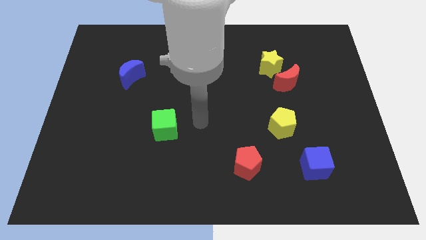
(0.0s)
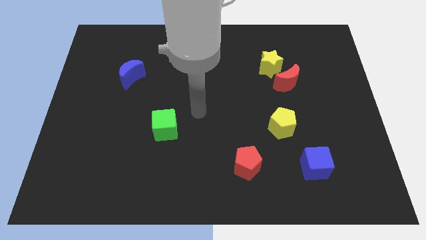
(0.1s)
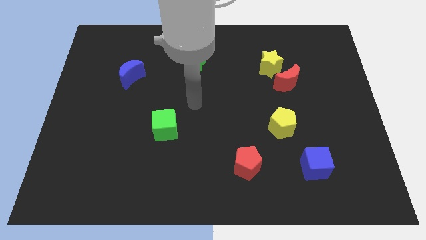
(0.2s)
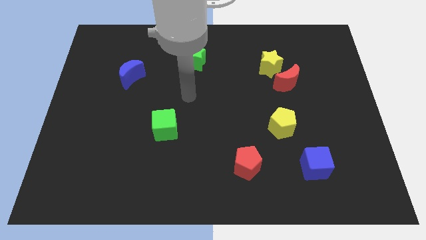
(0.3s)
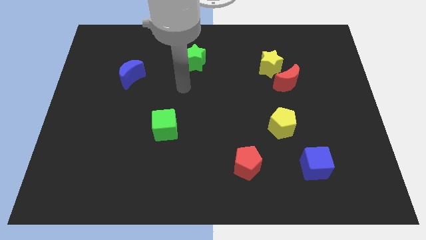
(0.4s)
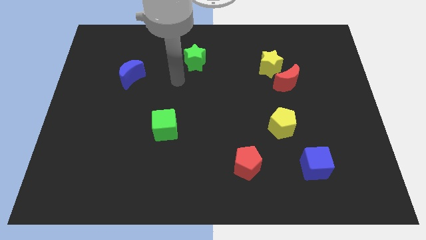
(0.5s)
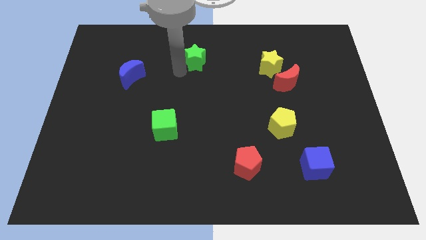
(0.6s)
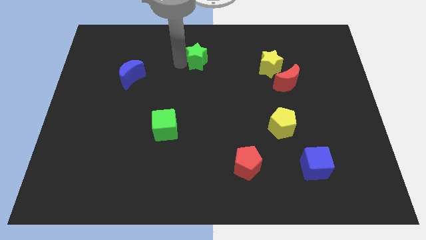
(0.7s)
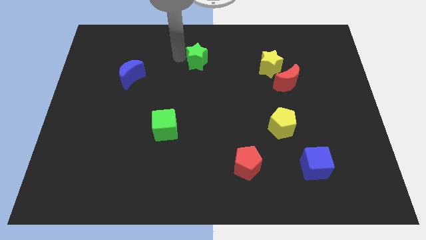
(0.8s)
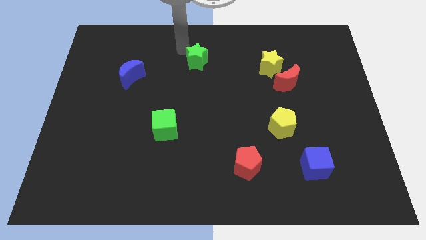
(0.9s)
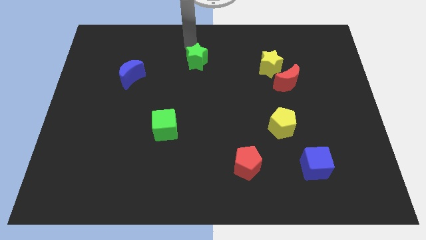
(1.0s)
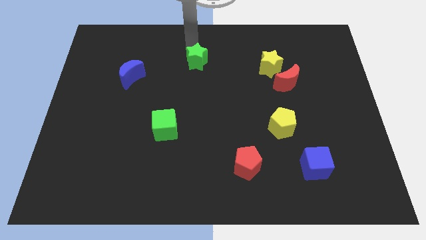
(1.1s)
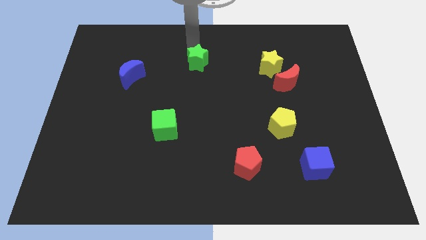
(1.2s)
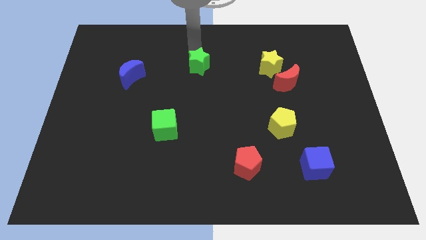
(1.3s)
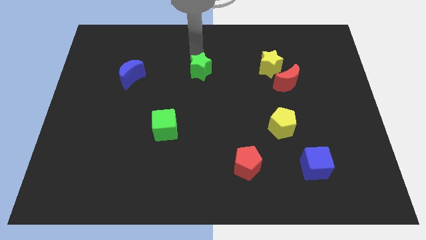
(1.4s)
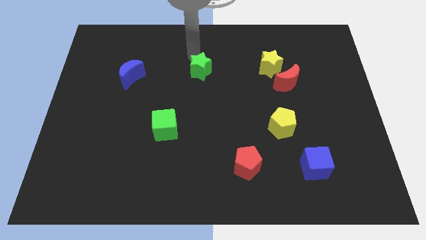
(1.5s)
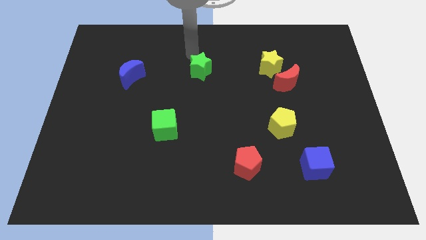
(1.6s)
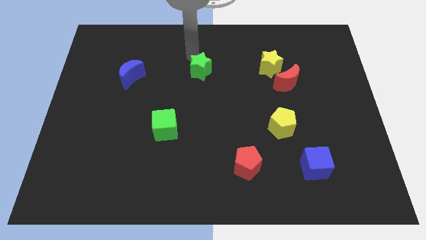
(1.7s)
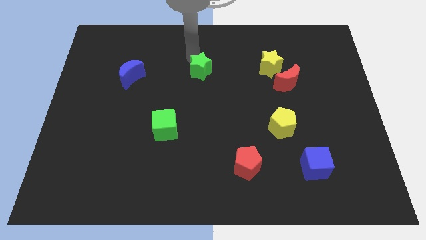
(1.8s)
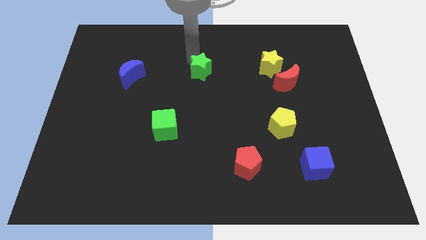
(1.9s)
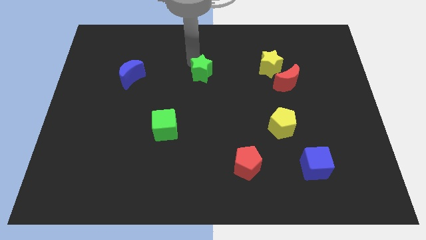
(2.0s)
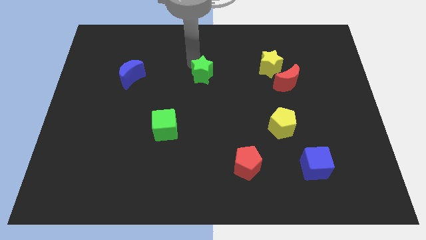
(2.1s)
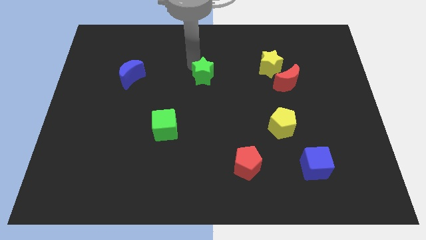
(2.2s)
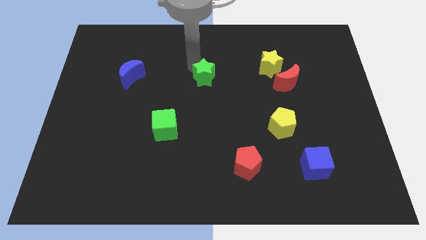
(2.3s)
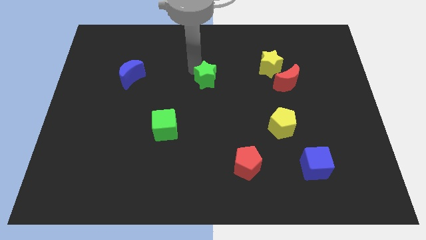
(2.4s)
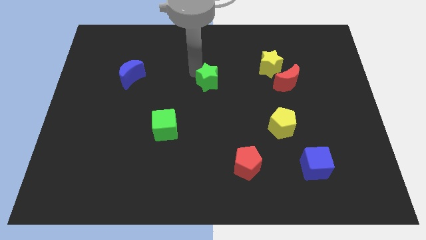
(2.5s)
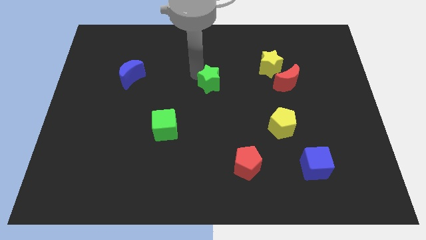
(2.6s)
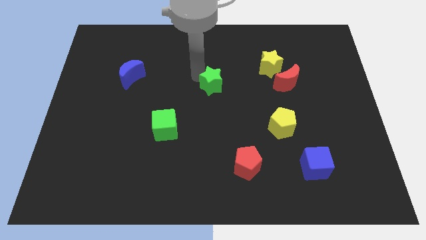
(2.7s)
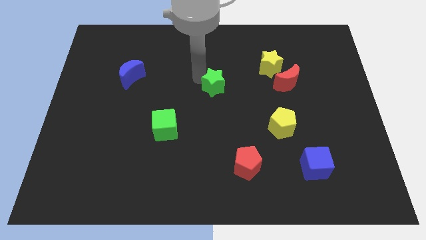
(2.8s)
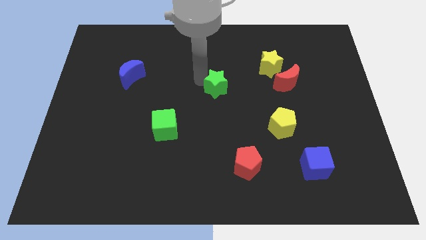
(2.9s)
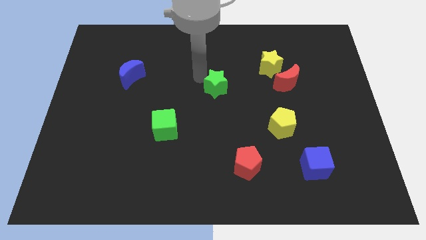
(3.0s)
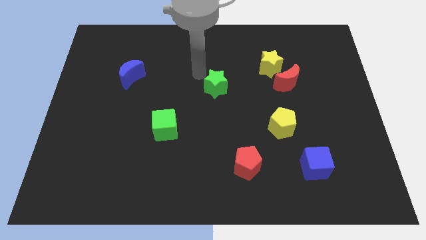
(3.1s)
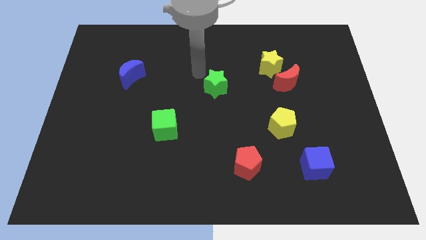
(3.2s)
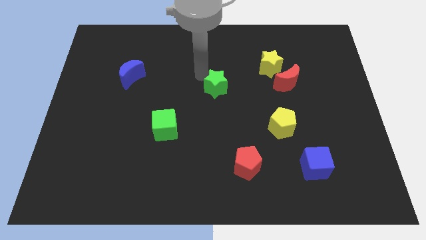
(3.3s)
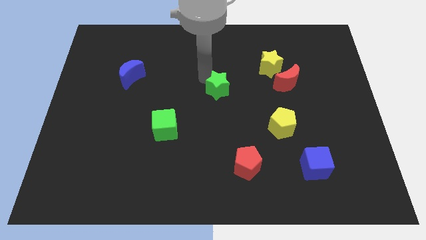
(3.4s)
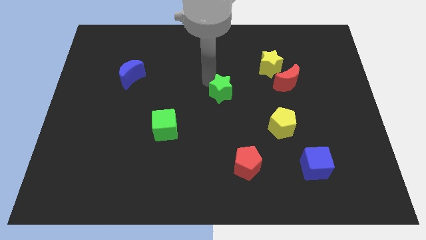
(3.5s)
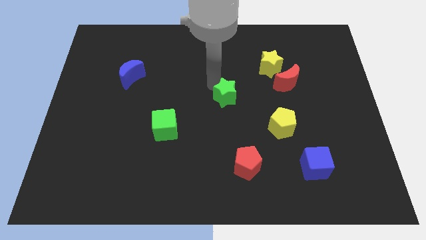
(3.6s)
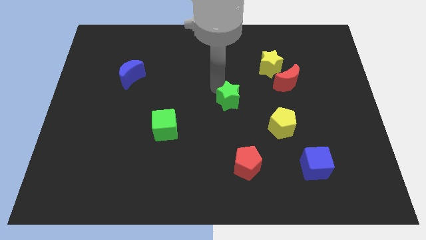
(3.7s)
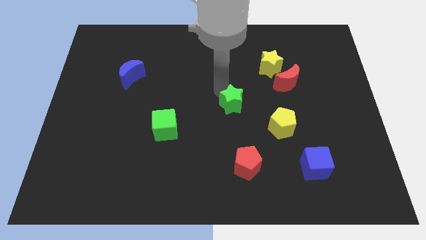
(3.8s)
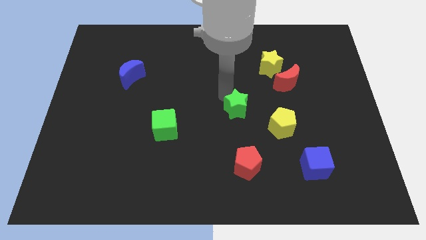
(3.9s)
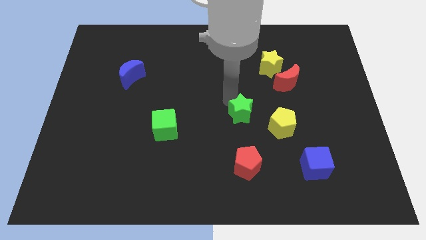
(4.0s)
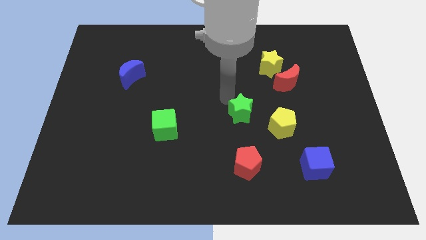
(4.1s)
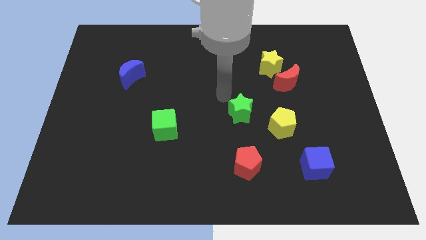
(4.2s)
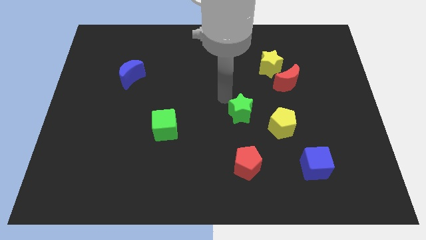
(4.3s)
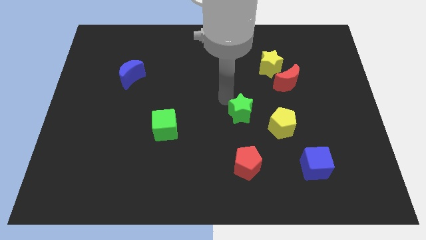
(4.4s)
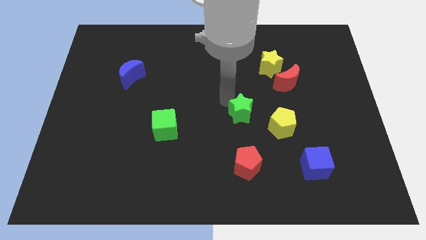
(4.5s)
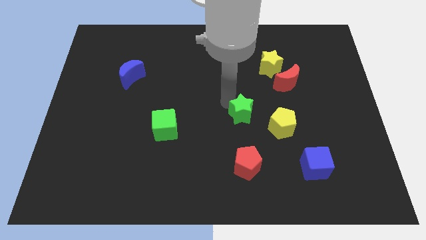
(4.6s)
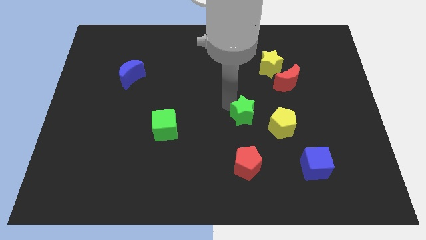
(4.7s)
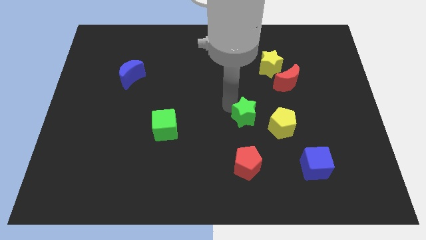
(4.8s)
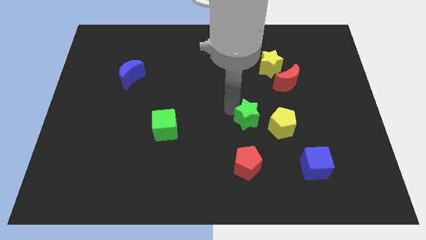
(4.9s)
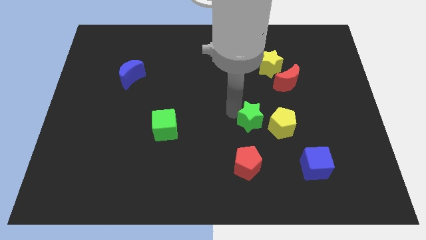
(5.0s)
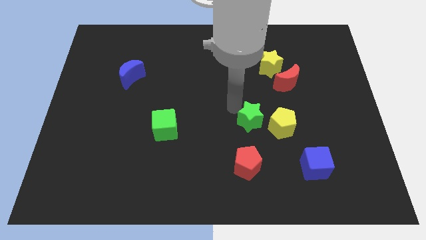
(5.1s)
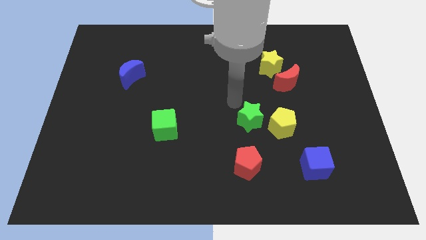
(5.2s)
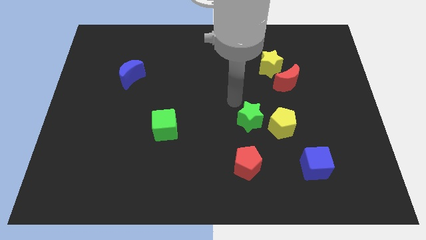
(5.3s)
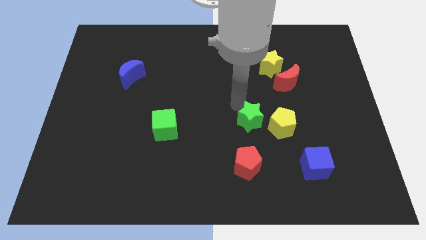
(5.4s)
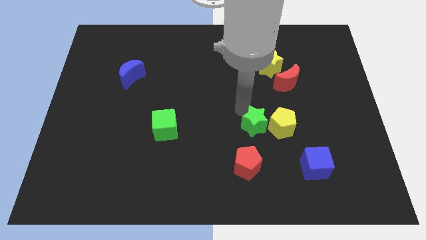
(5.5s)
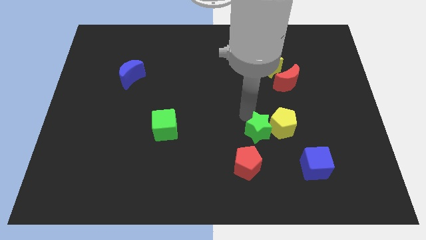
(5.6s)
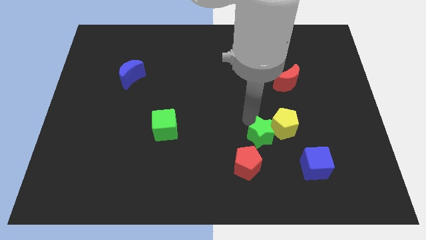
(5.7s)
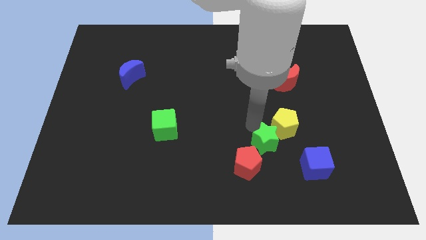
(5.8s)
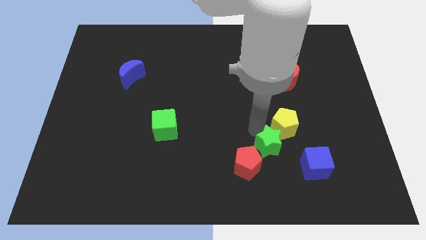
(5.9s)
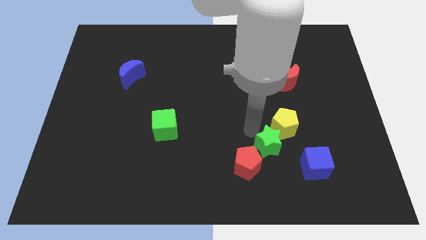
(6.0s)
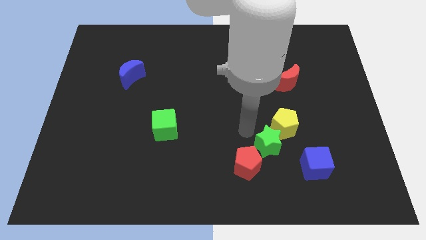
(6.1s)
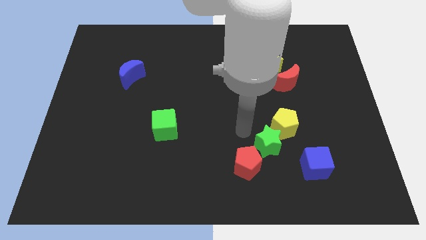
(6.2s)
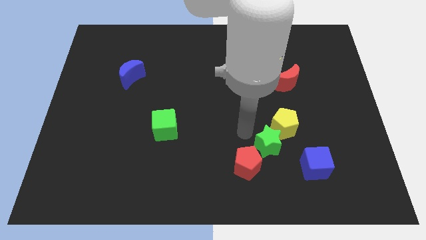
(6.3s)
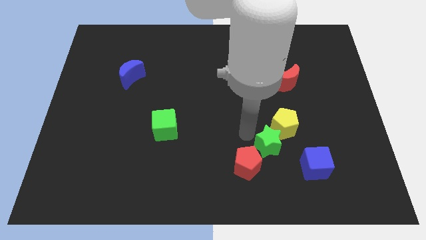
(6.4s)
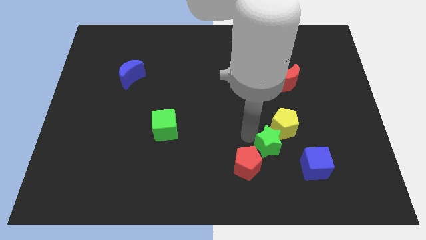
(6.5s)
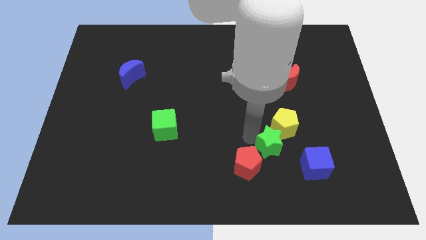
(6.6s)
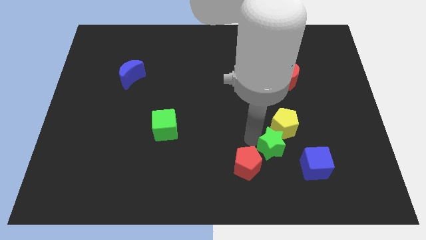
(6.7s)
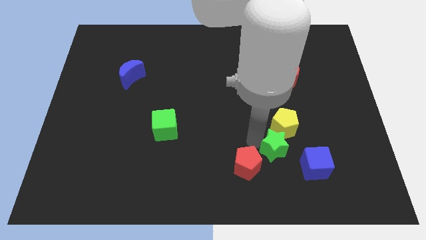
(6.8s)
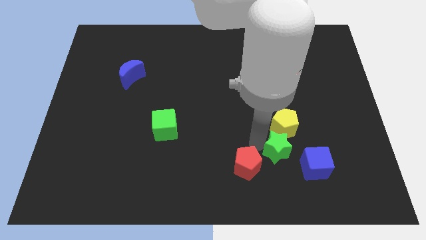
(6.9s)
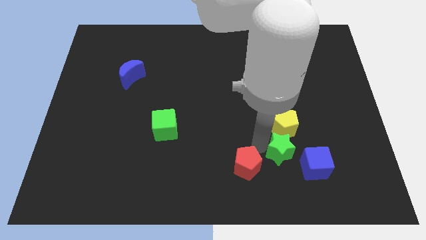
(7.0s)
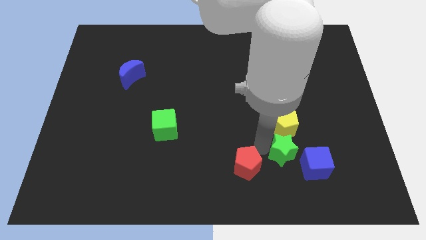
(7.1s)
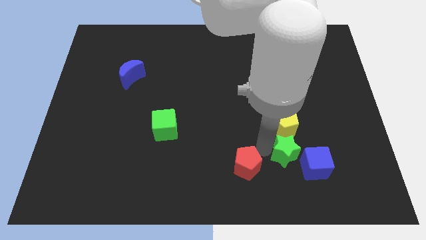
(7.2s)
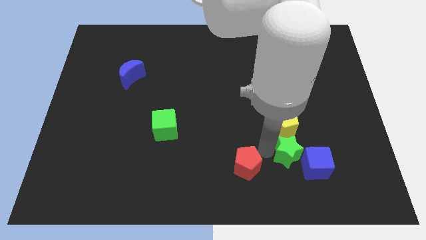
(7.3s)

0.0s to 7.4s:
put the green star towards the blue cube
